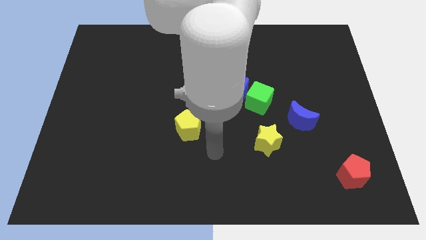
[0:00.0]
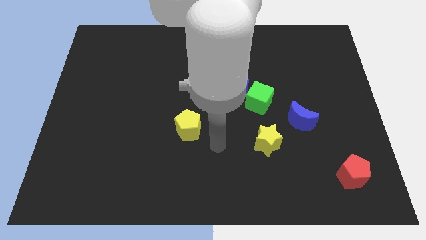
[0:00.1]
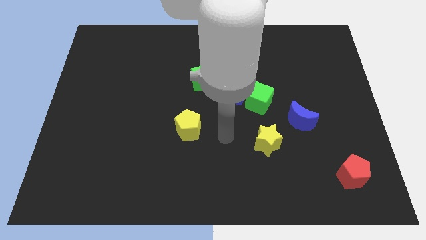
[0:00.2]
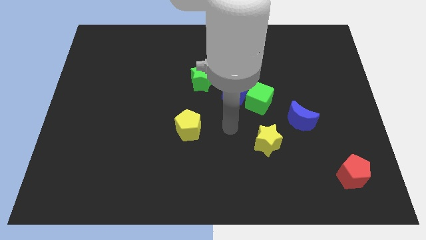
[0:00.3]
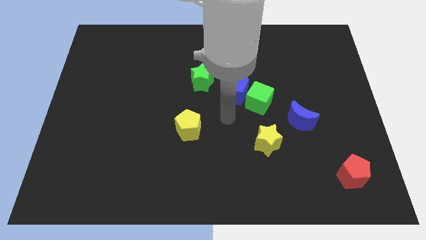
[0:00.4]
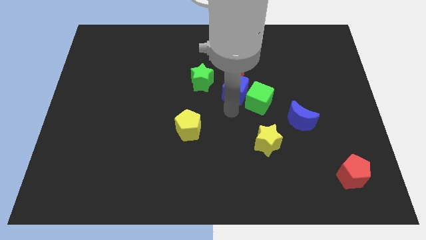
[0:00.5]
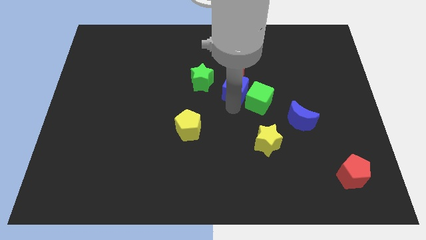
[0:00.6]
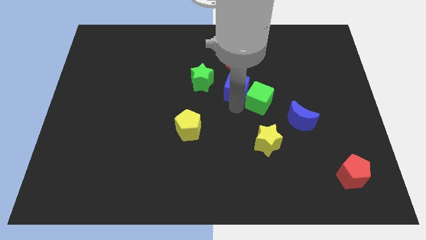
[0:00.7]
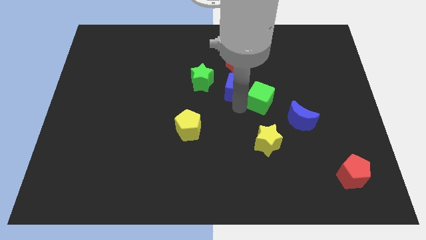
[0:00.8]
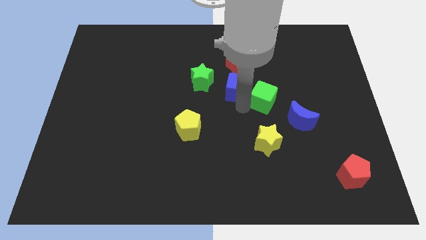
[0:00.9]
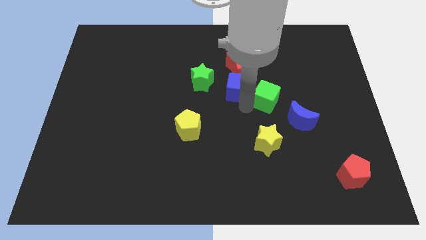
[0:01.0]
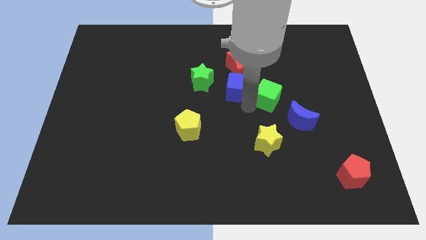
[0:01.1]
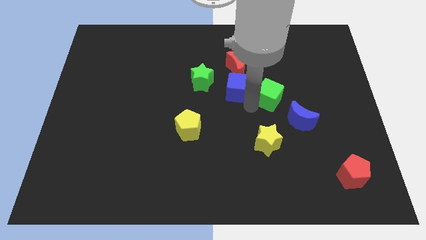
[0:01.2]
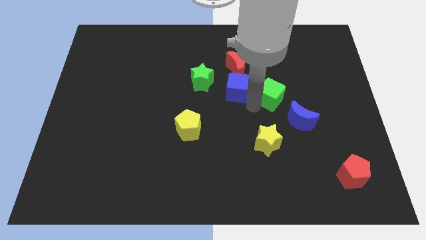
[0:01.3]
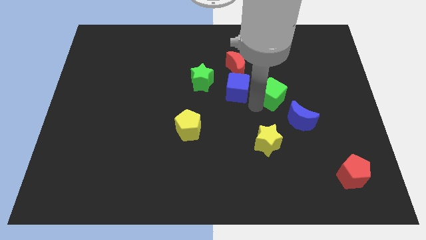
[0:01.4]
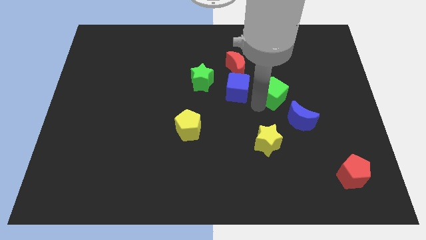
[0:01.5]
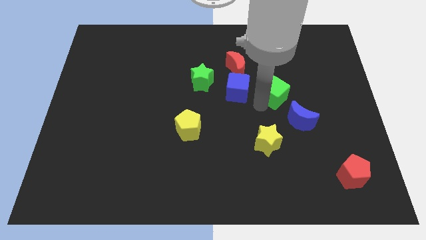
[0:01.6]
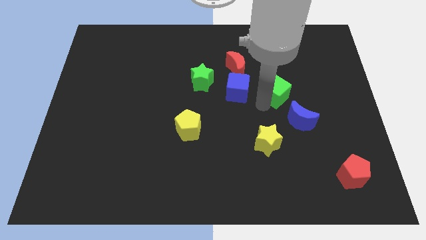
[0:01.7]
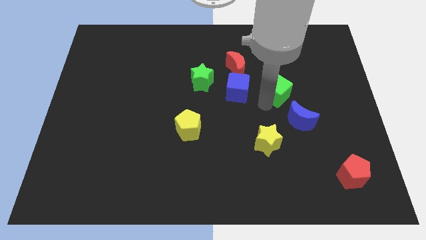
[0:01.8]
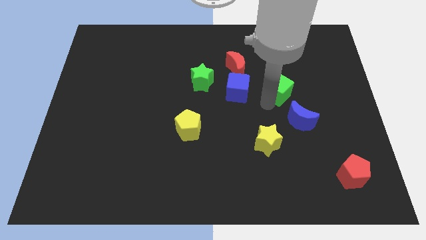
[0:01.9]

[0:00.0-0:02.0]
separate the green cube from the blue cube

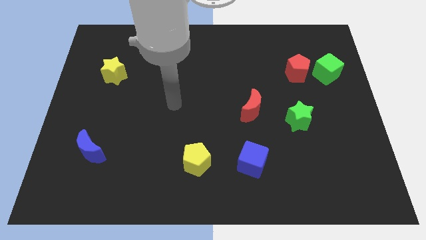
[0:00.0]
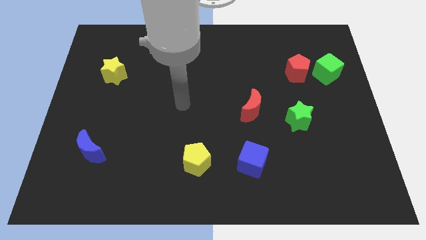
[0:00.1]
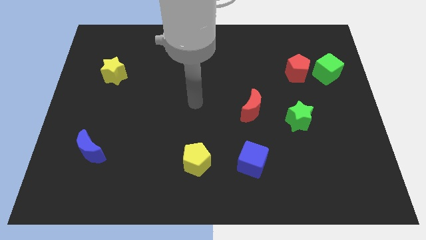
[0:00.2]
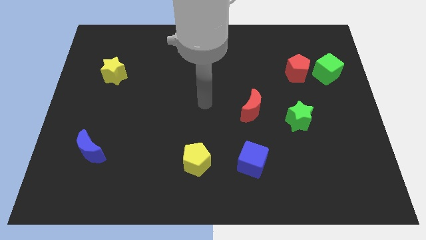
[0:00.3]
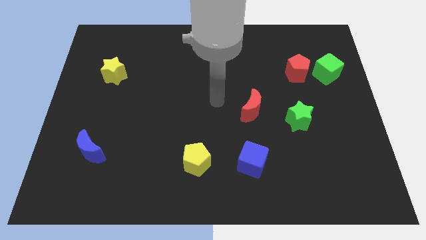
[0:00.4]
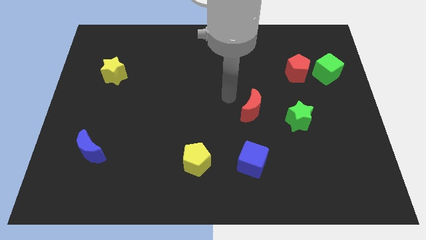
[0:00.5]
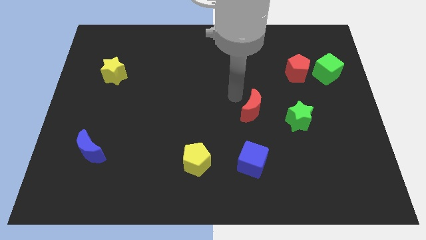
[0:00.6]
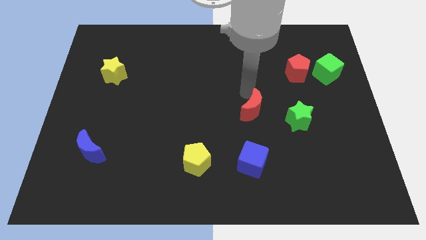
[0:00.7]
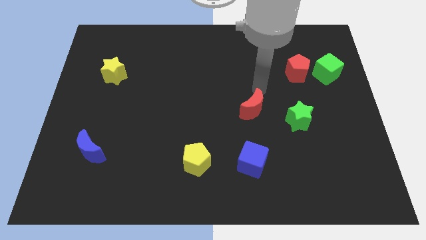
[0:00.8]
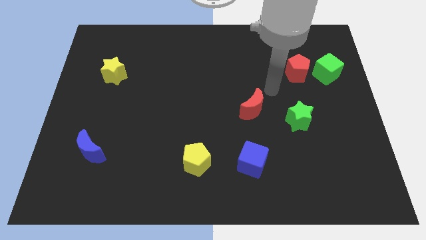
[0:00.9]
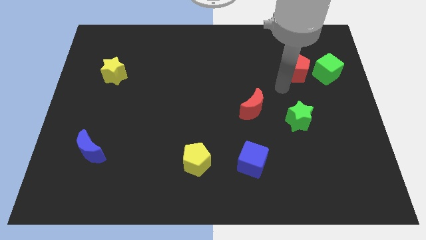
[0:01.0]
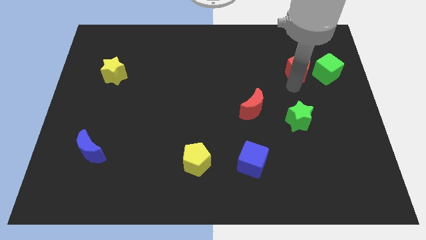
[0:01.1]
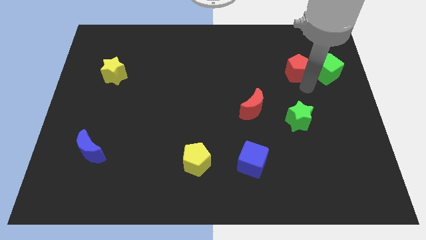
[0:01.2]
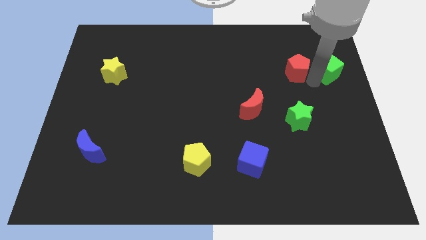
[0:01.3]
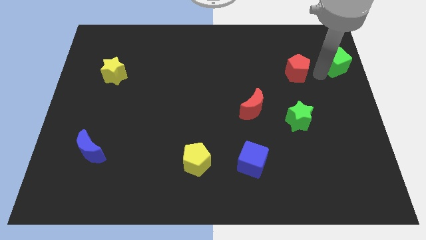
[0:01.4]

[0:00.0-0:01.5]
separate the red pentagon from the green cube

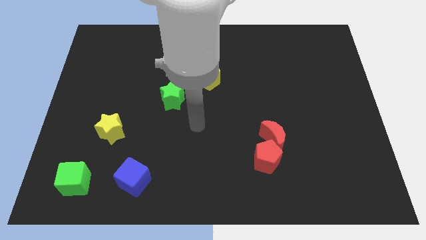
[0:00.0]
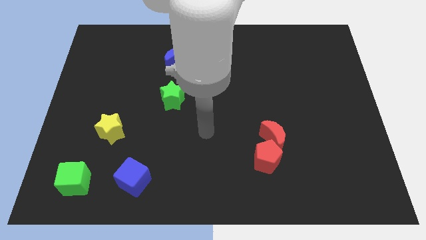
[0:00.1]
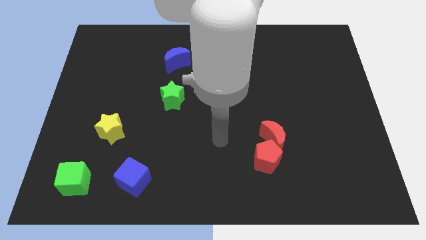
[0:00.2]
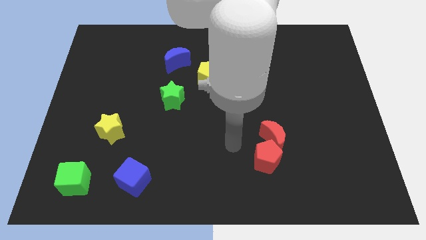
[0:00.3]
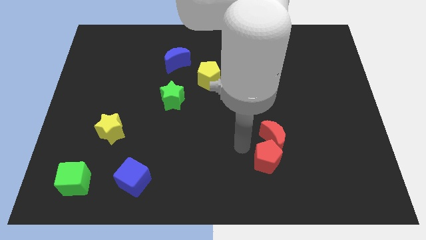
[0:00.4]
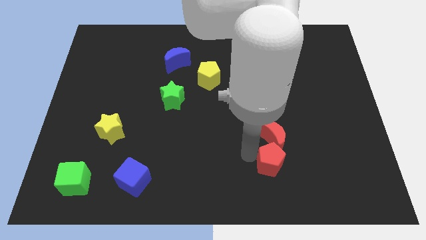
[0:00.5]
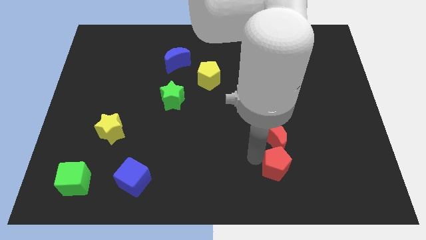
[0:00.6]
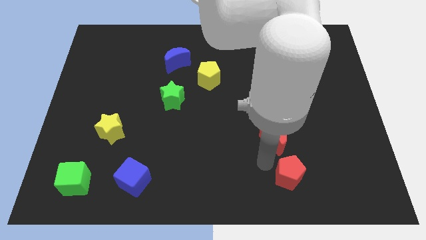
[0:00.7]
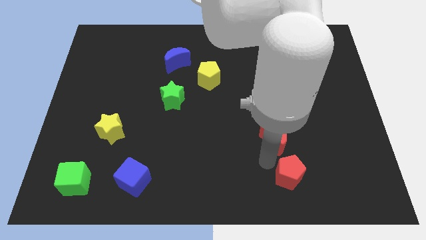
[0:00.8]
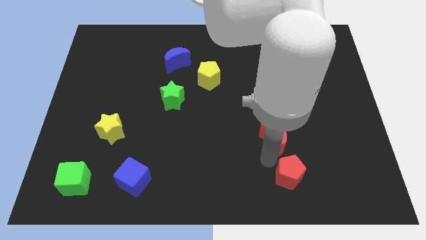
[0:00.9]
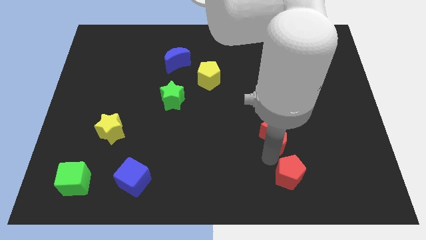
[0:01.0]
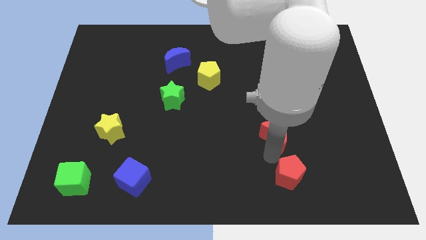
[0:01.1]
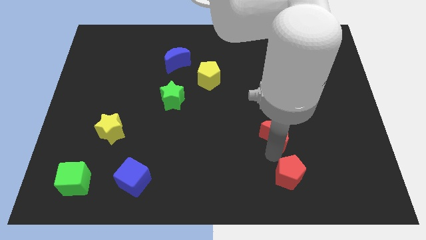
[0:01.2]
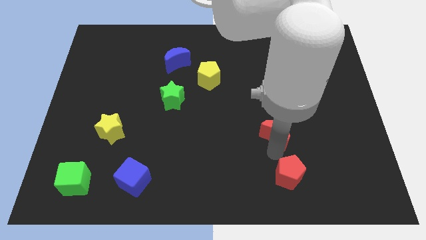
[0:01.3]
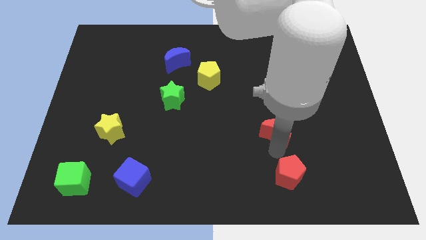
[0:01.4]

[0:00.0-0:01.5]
pull the red moon apart from the red pentagon

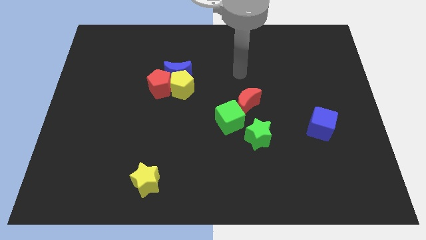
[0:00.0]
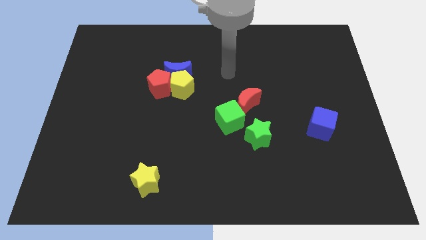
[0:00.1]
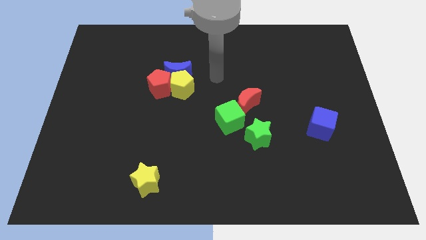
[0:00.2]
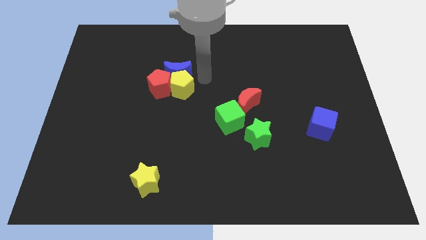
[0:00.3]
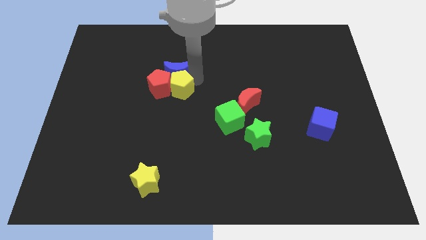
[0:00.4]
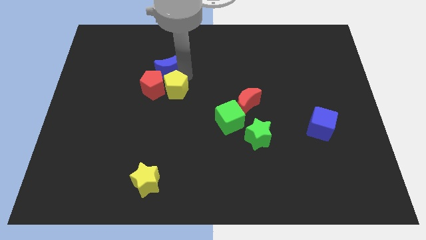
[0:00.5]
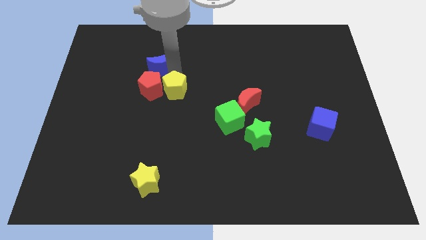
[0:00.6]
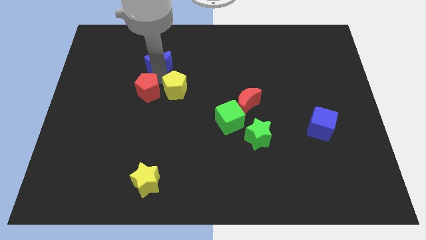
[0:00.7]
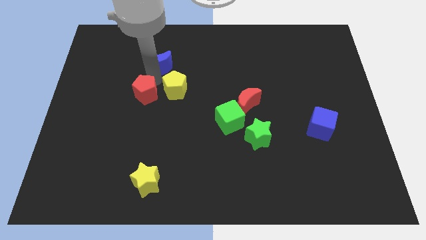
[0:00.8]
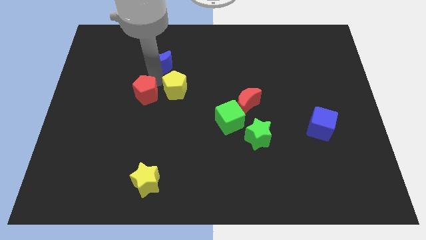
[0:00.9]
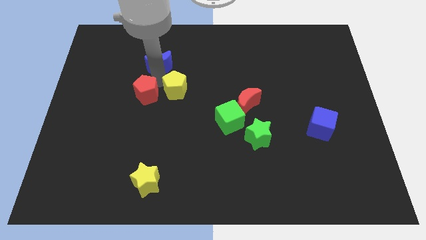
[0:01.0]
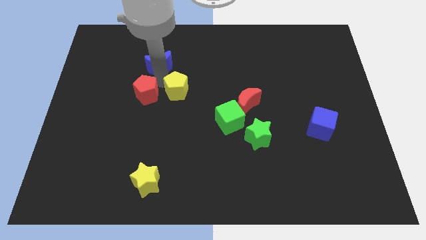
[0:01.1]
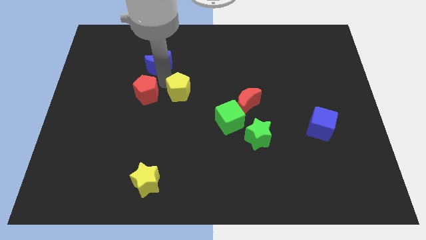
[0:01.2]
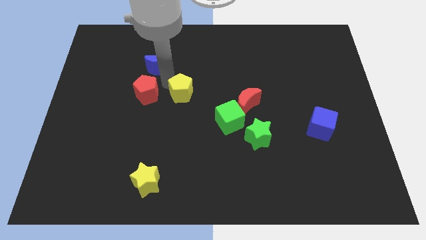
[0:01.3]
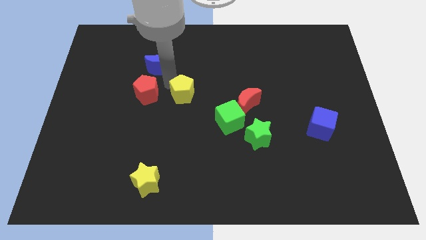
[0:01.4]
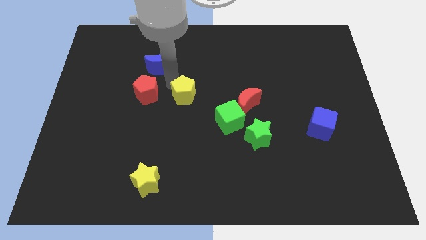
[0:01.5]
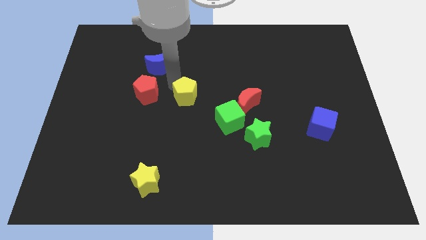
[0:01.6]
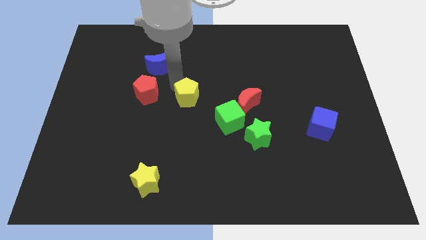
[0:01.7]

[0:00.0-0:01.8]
pull the yellow pentagon apart from the blue moon and red pentagon

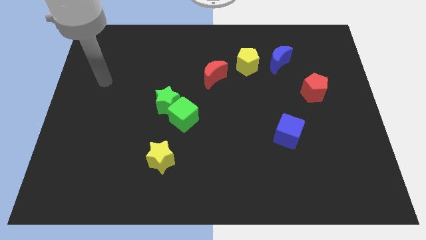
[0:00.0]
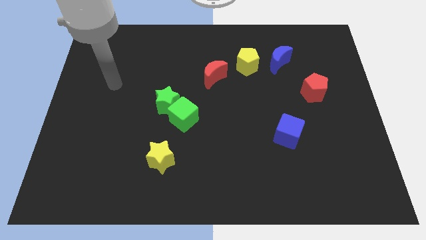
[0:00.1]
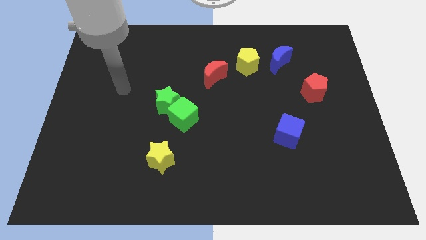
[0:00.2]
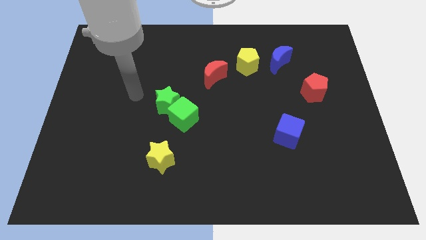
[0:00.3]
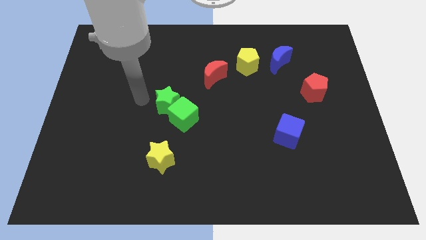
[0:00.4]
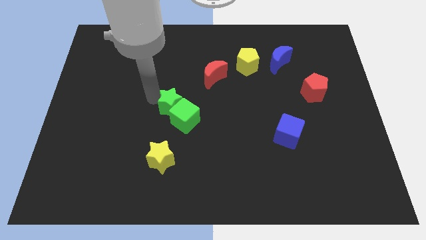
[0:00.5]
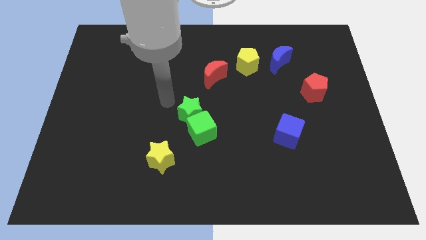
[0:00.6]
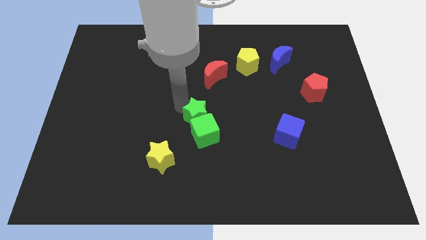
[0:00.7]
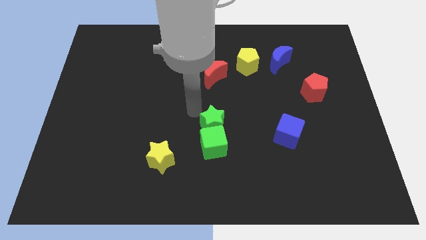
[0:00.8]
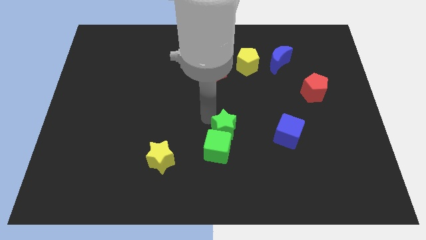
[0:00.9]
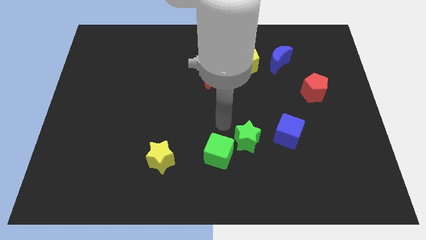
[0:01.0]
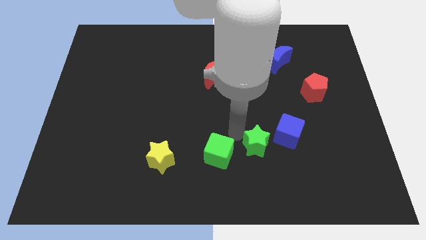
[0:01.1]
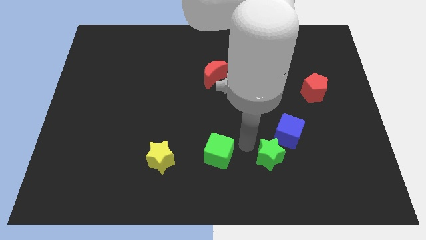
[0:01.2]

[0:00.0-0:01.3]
separate the green cube from the green star

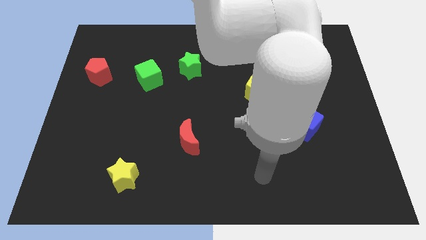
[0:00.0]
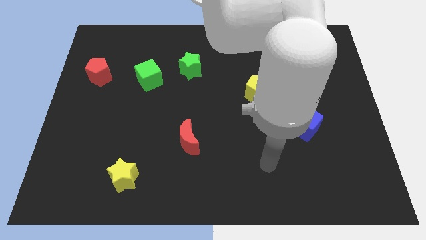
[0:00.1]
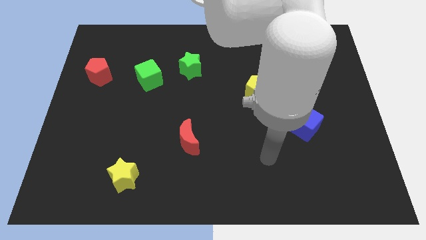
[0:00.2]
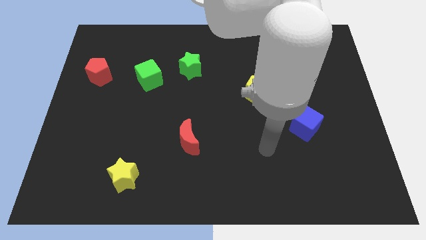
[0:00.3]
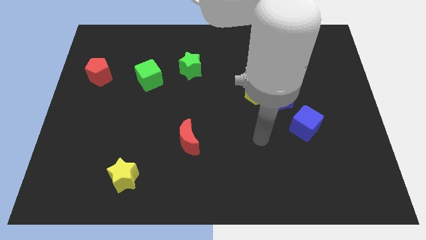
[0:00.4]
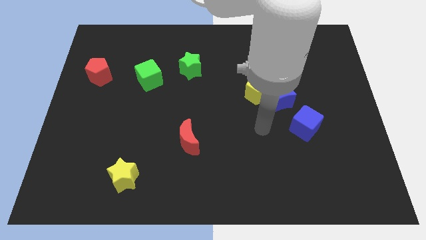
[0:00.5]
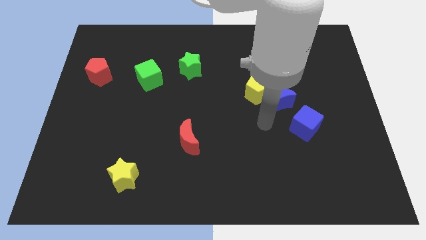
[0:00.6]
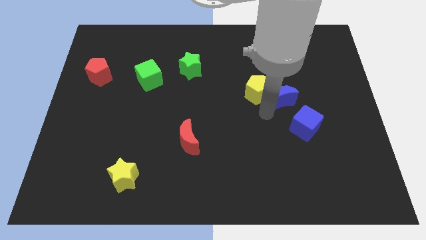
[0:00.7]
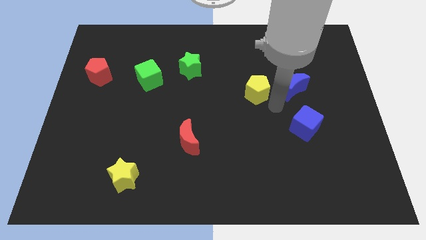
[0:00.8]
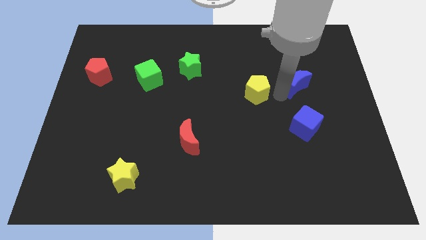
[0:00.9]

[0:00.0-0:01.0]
separate the yellow pentagon from the blue moon
